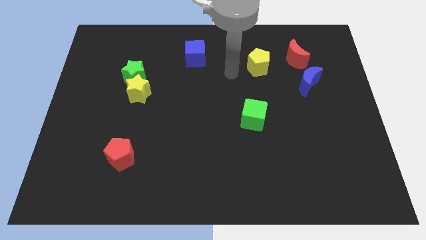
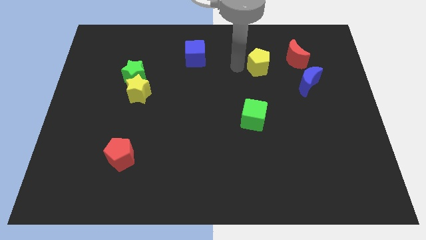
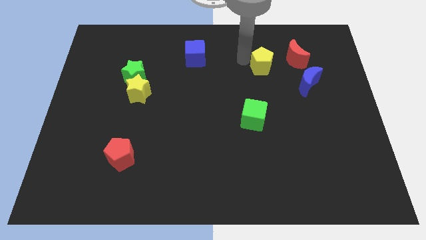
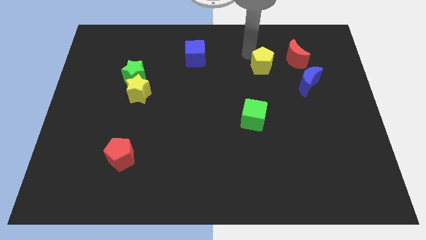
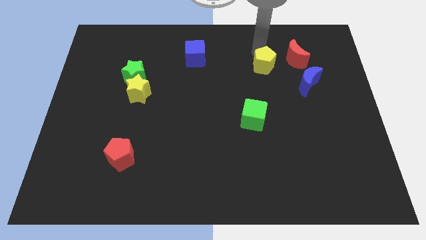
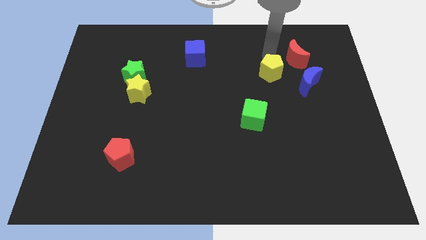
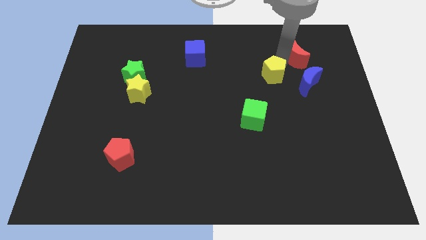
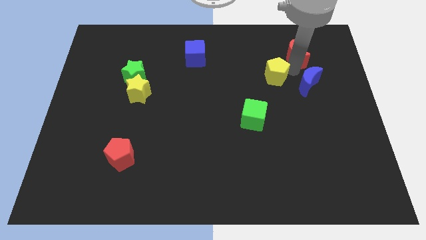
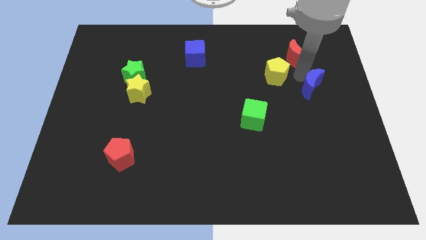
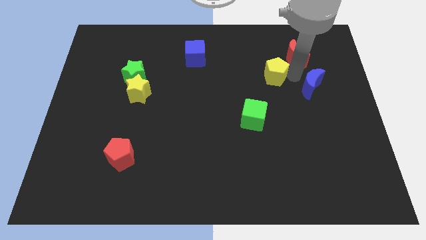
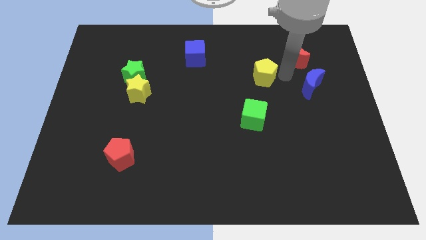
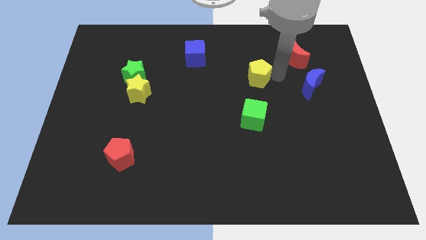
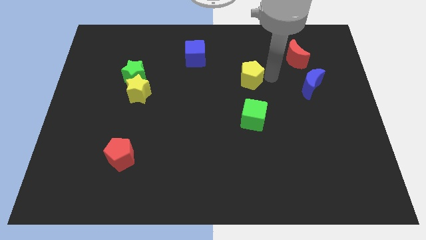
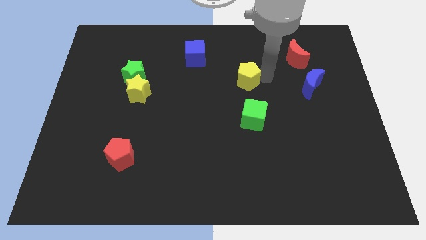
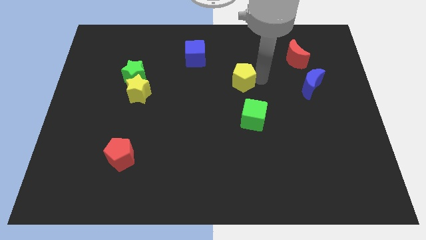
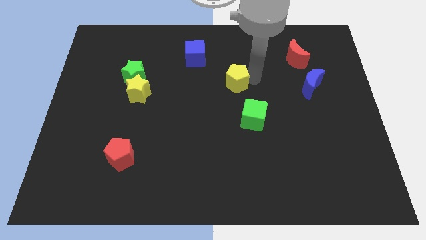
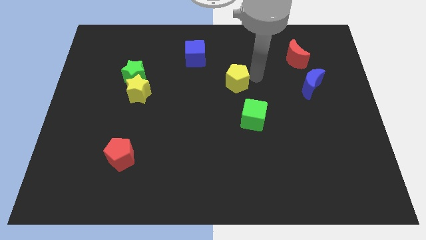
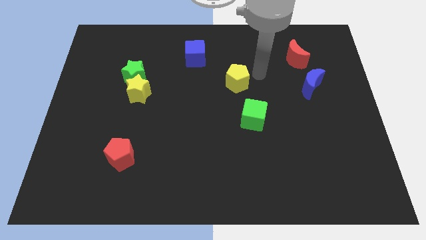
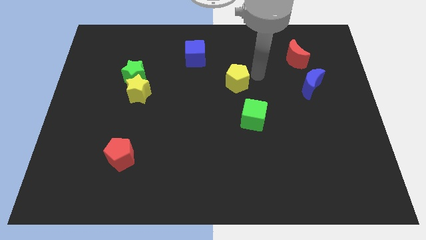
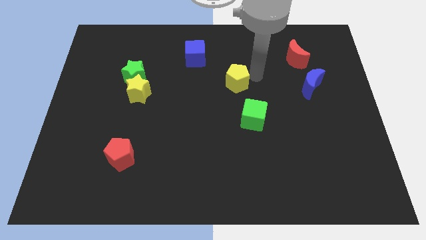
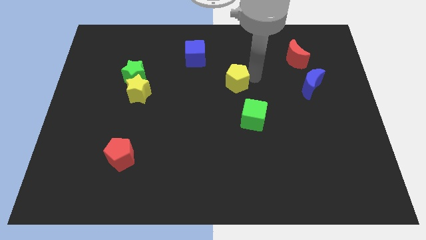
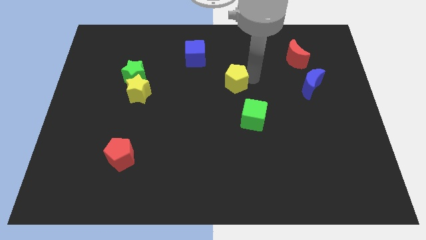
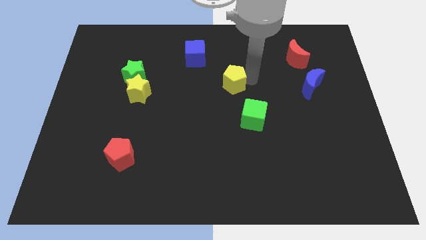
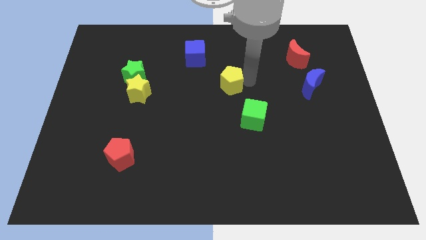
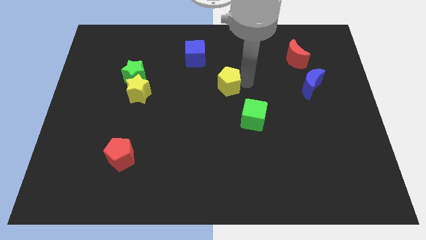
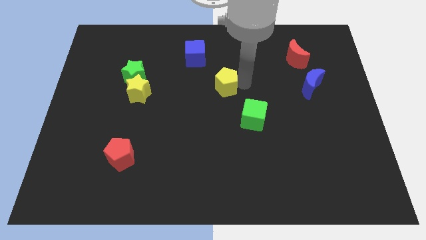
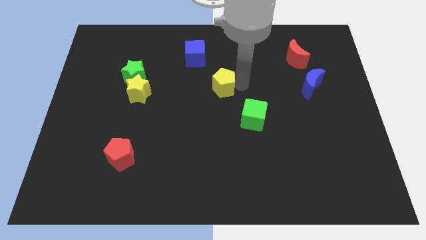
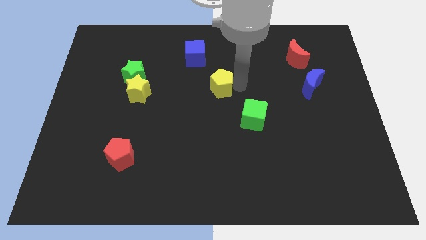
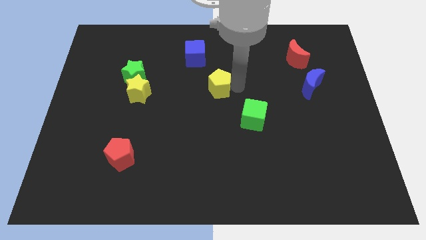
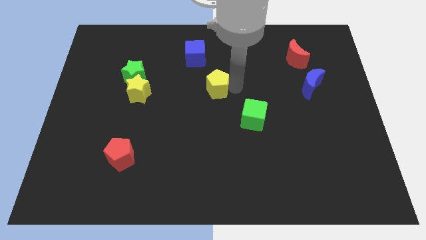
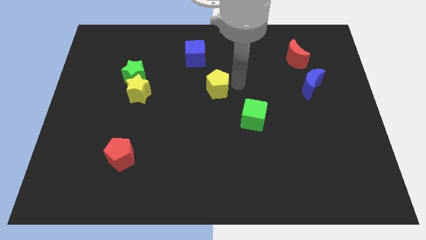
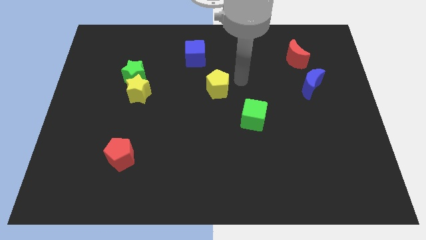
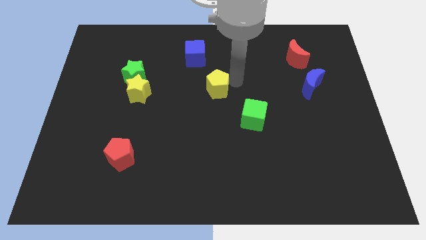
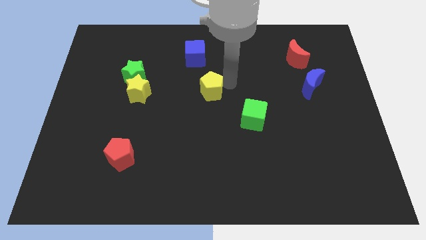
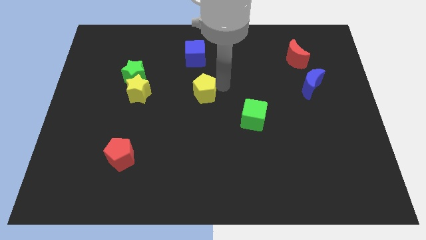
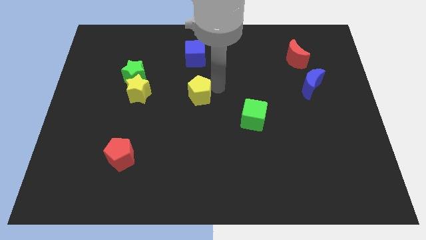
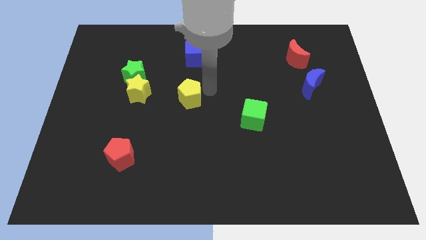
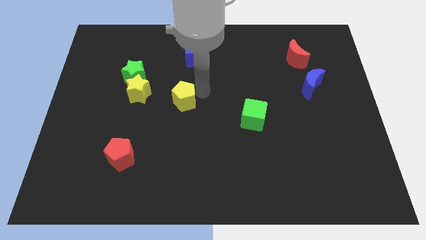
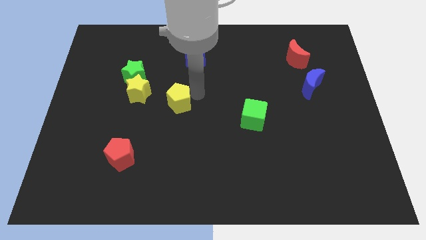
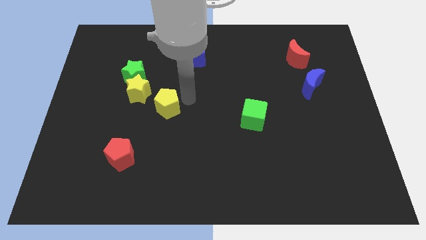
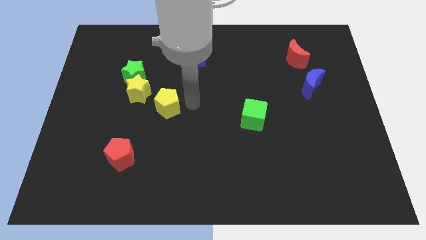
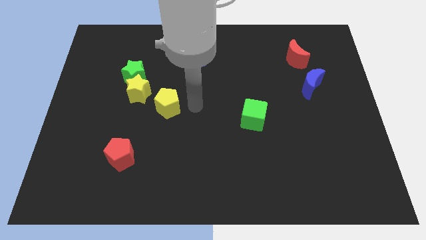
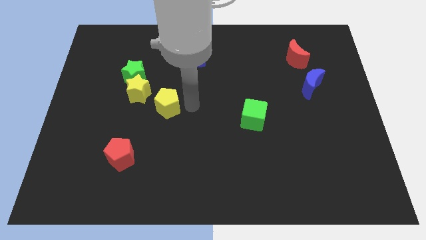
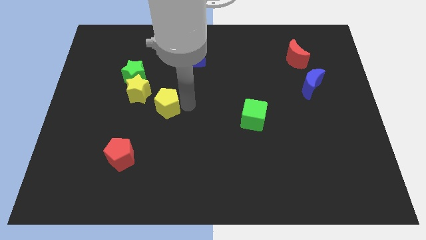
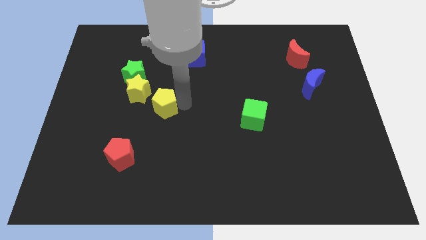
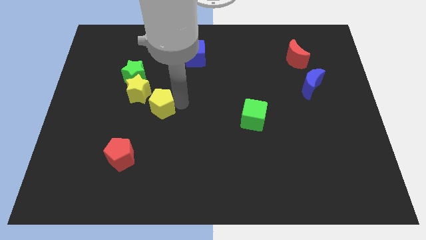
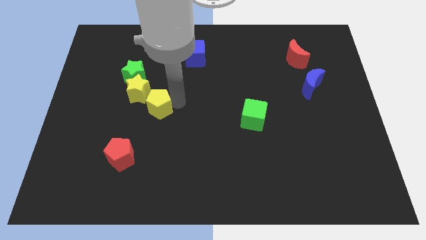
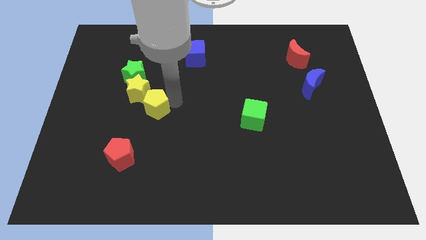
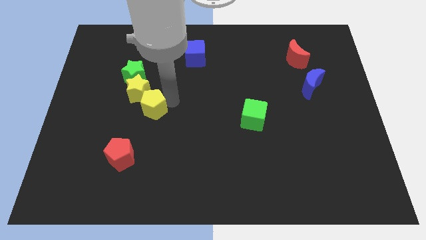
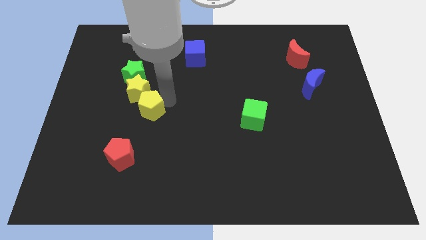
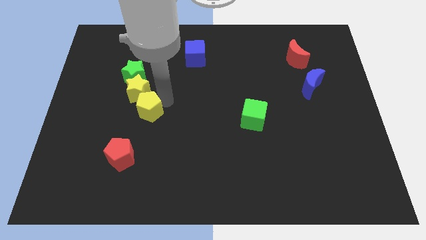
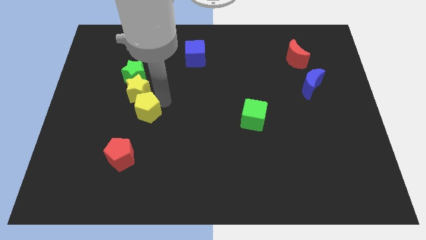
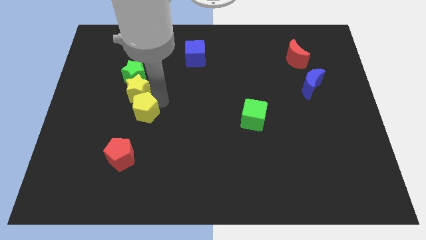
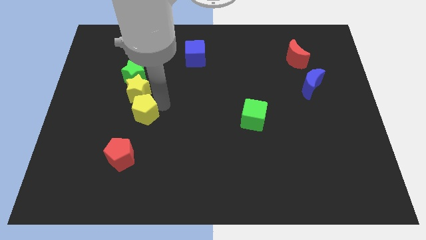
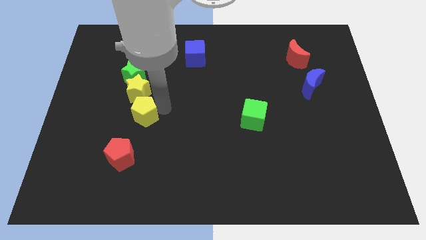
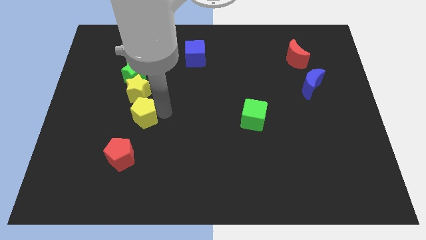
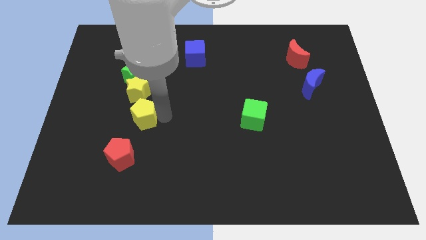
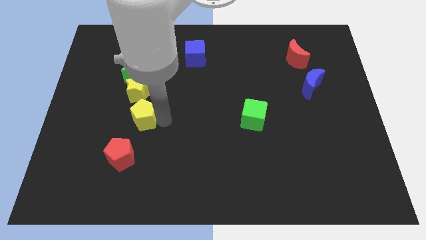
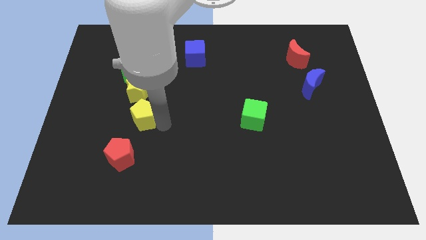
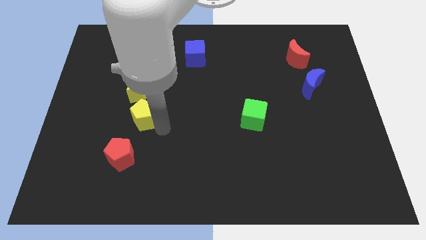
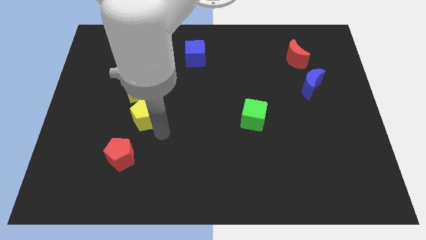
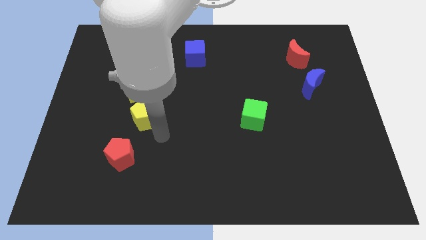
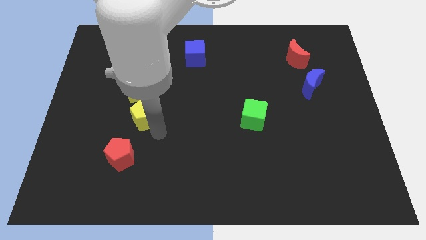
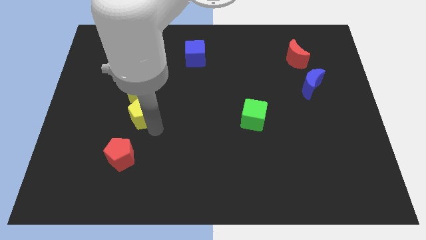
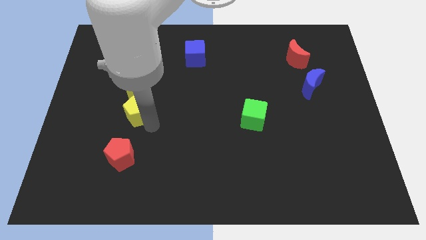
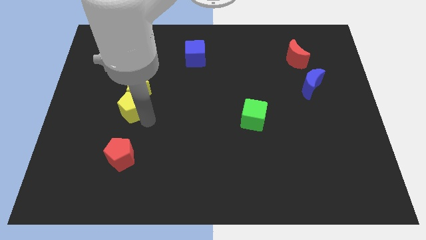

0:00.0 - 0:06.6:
push the yellow pentagon diagonally down and to the left of the yellow star

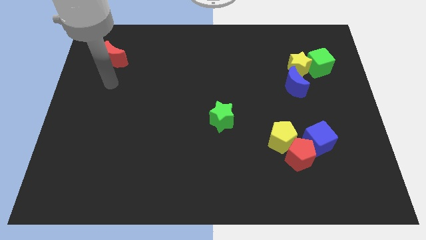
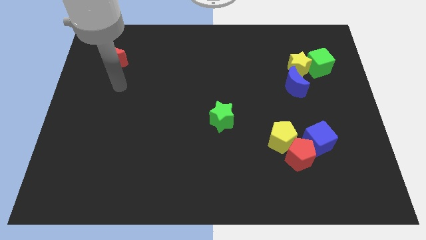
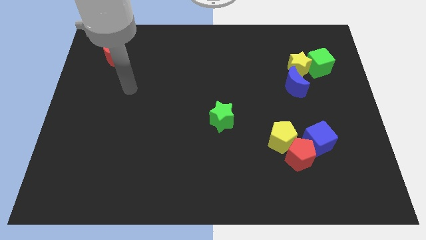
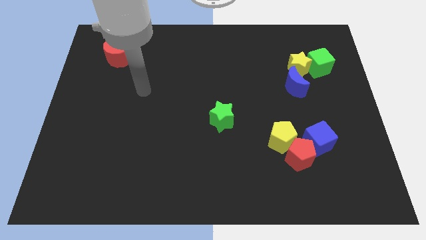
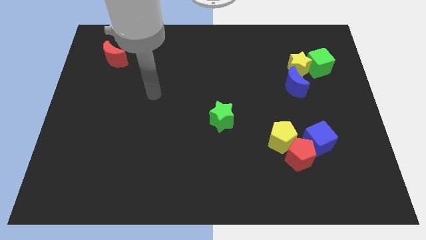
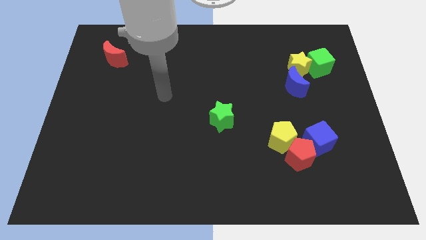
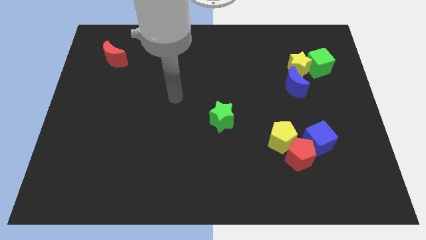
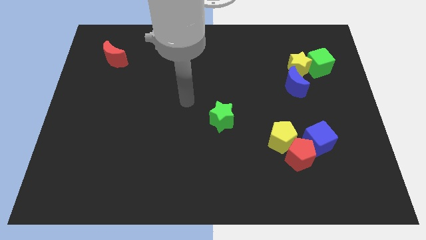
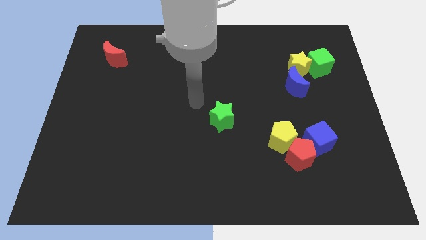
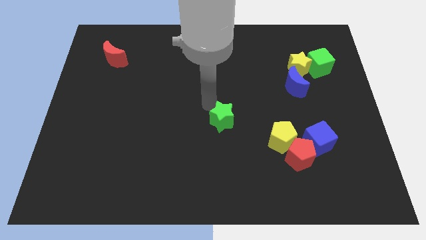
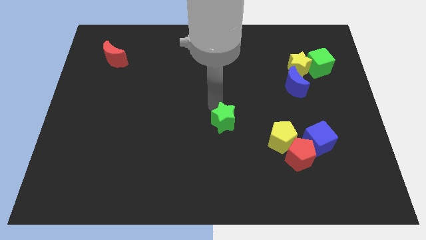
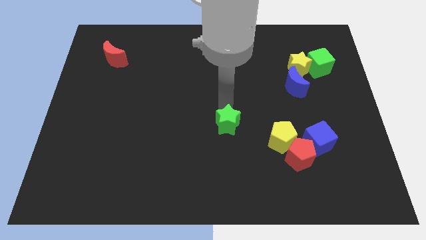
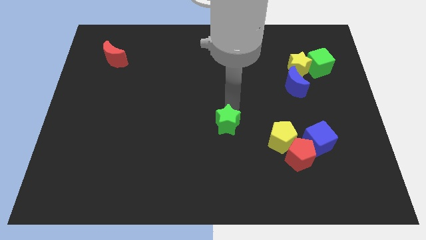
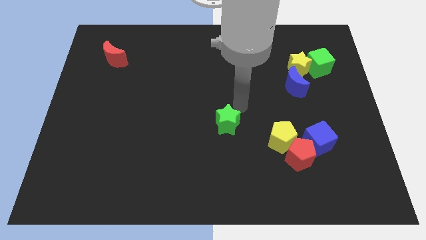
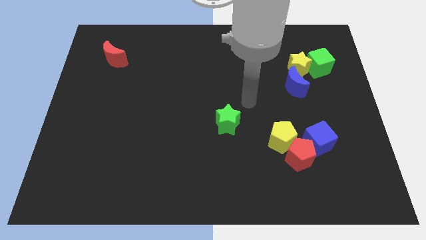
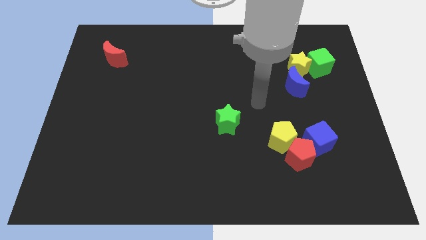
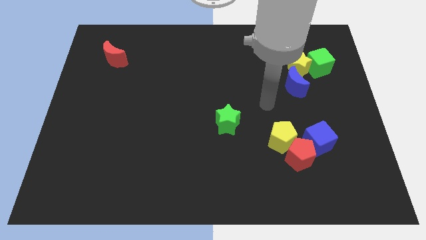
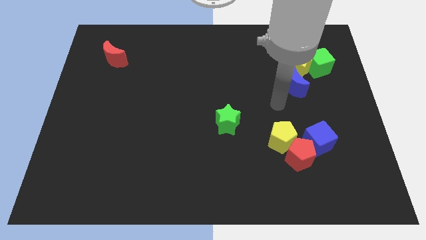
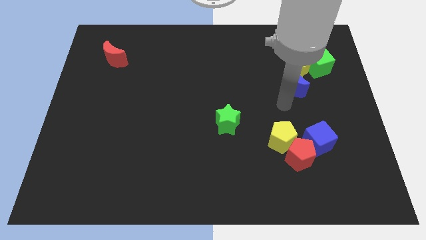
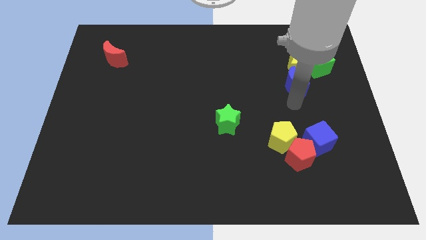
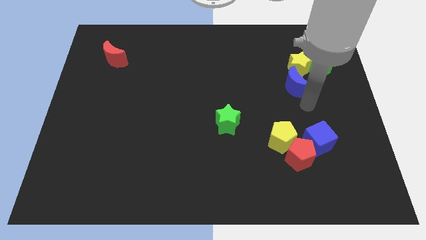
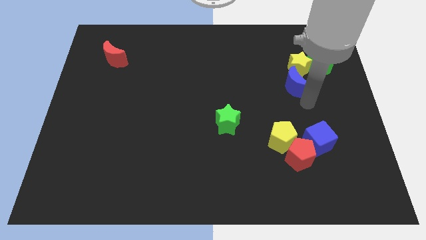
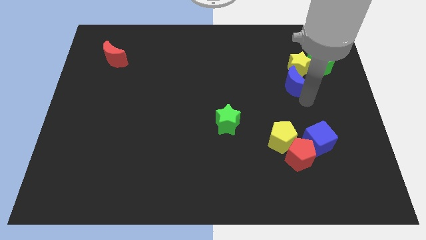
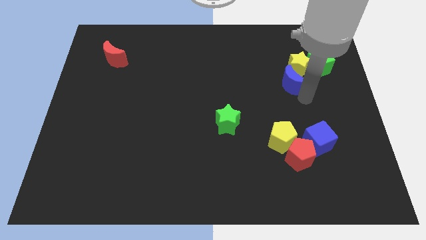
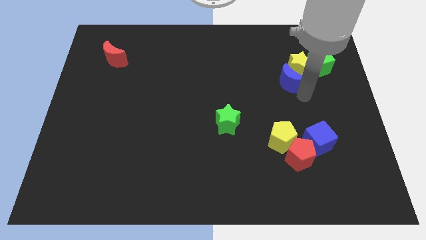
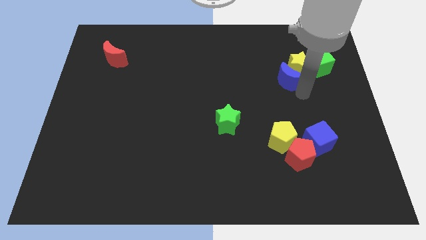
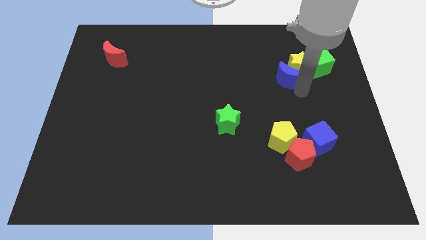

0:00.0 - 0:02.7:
move the blue moon to the left of the green cube
